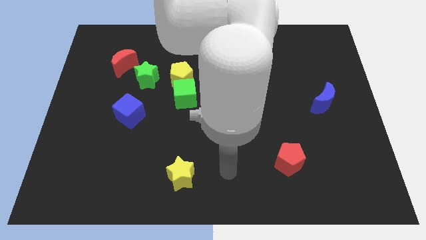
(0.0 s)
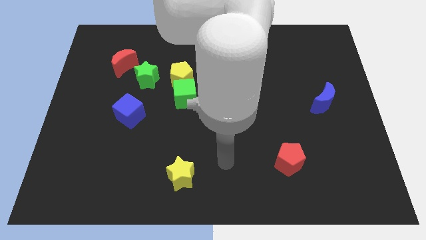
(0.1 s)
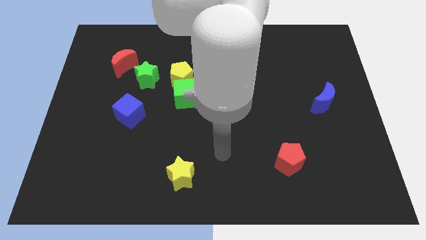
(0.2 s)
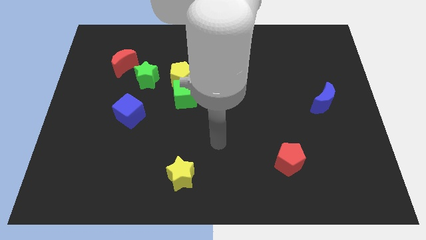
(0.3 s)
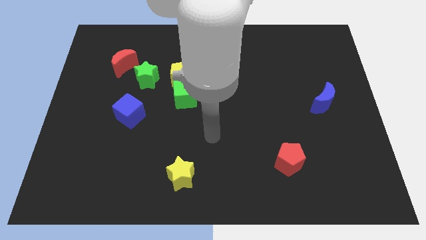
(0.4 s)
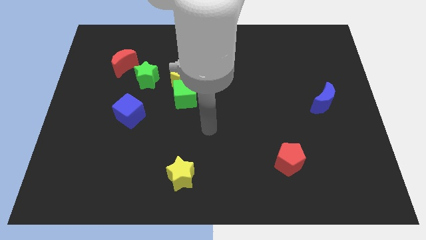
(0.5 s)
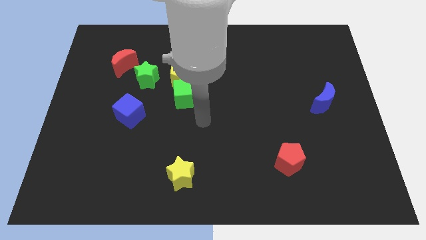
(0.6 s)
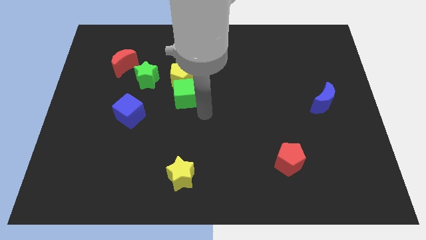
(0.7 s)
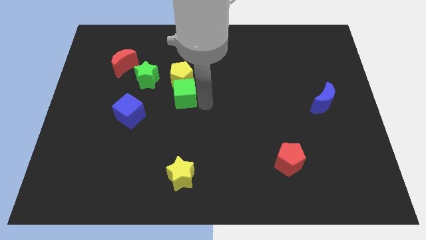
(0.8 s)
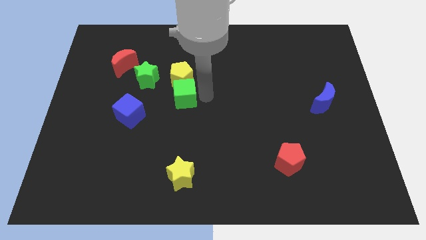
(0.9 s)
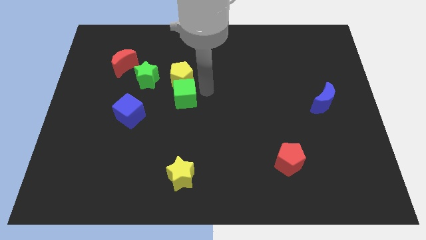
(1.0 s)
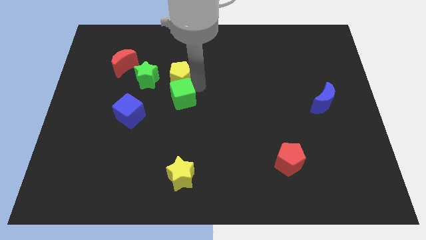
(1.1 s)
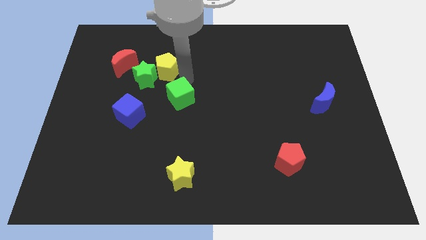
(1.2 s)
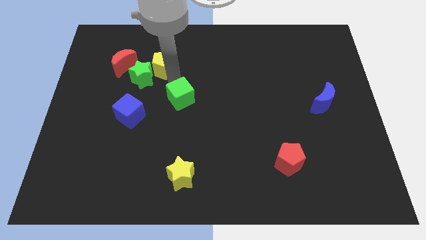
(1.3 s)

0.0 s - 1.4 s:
pull the green cube apart from the yellow pentagon

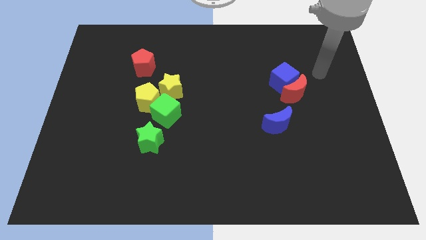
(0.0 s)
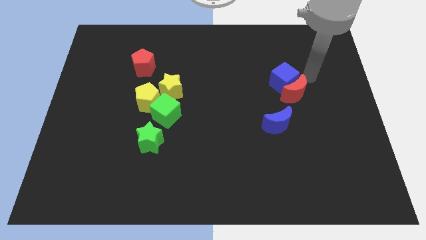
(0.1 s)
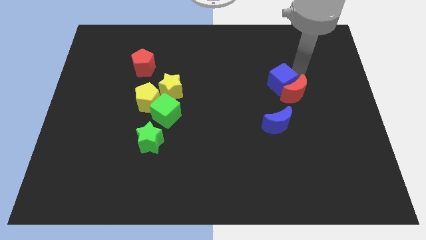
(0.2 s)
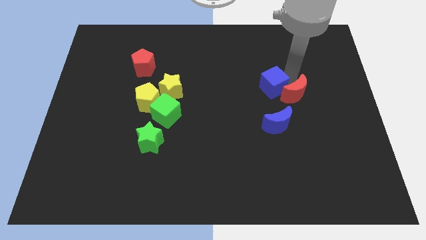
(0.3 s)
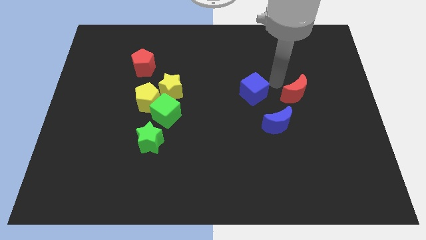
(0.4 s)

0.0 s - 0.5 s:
pull the red moon apart from the blue cube

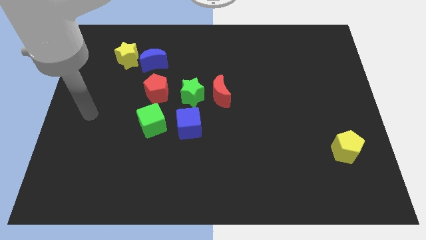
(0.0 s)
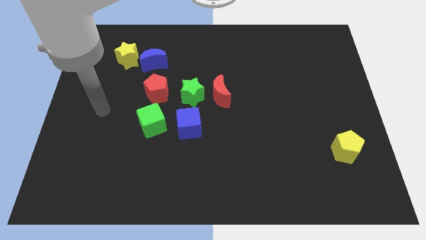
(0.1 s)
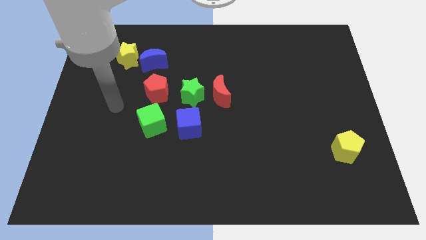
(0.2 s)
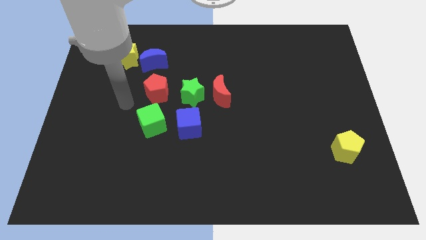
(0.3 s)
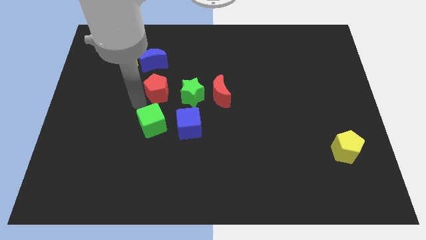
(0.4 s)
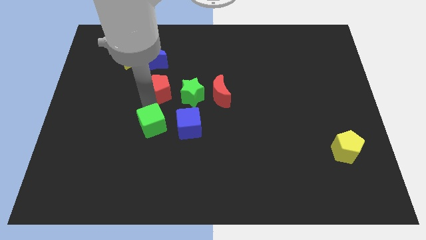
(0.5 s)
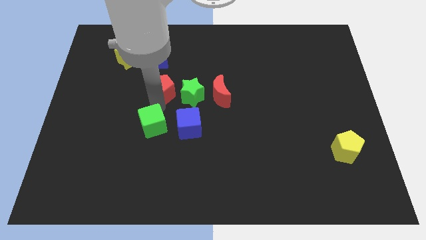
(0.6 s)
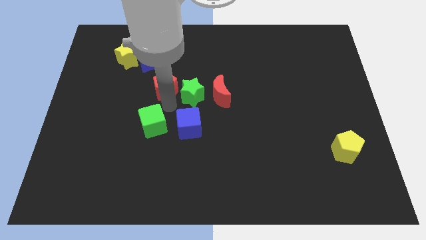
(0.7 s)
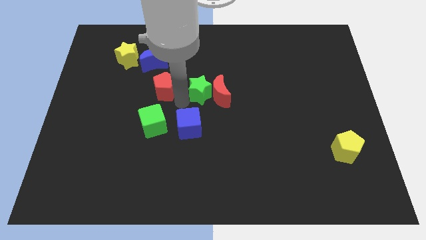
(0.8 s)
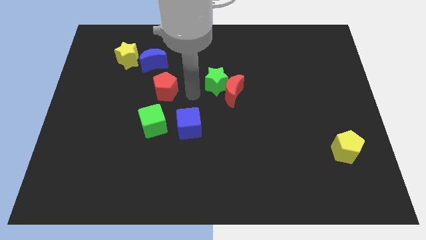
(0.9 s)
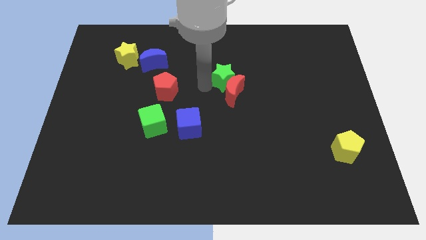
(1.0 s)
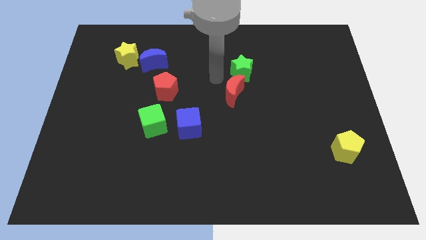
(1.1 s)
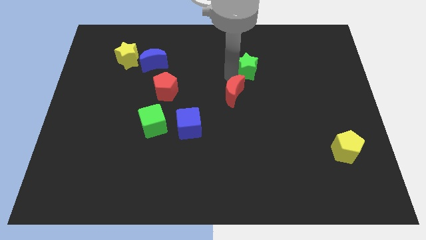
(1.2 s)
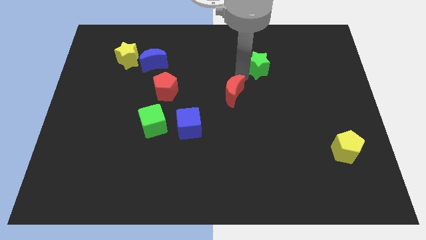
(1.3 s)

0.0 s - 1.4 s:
separate the red moon from the green star

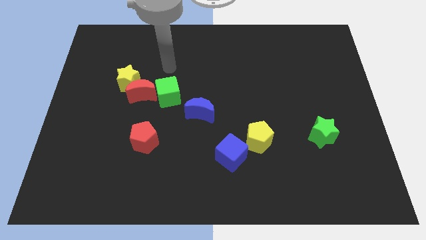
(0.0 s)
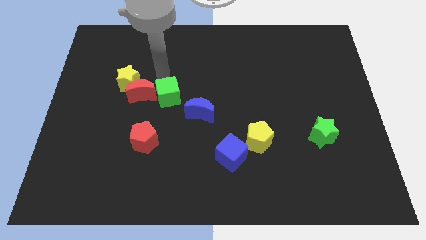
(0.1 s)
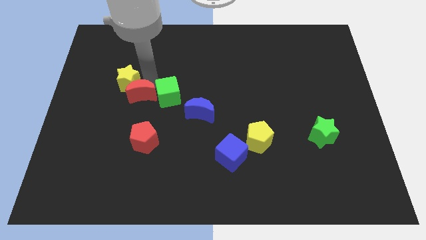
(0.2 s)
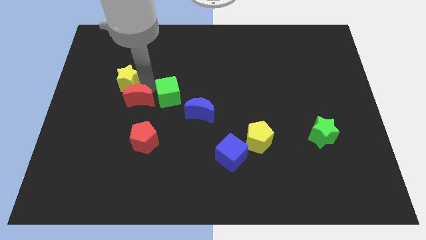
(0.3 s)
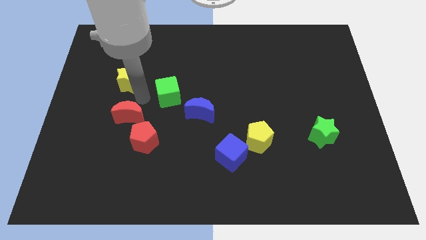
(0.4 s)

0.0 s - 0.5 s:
move the yellow star away from the red moon

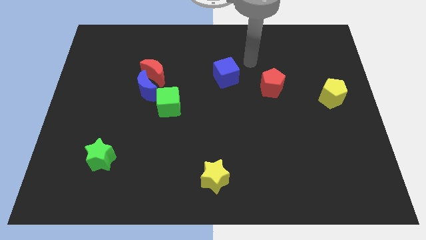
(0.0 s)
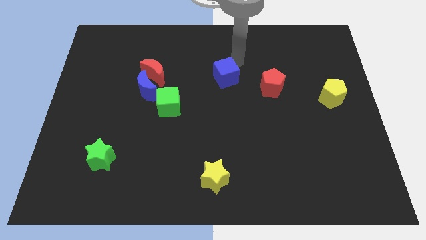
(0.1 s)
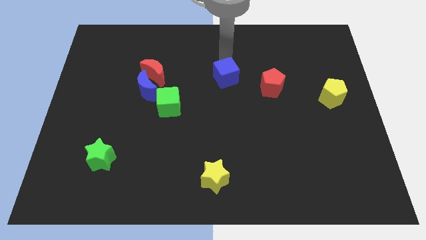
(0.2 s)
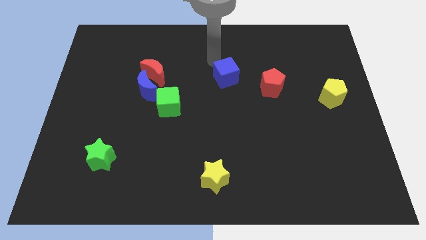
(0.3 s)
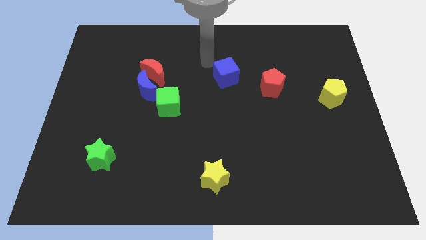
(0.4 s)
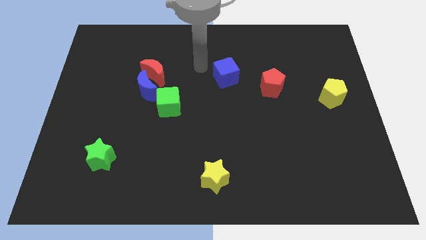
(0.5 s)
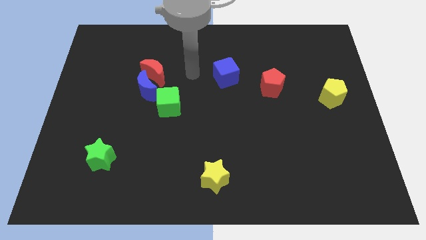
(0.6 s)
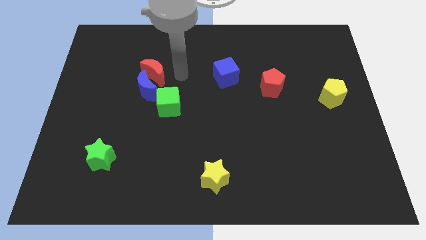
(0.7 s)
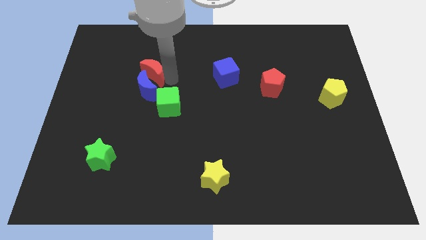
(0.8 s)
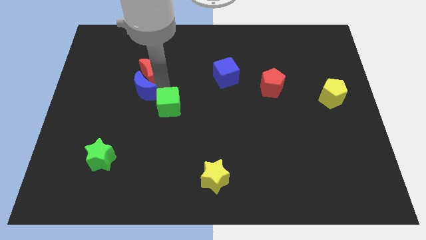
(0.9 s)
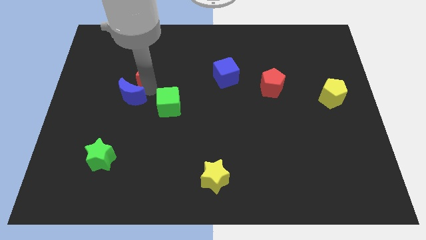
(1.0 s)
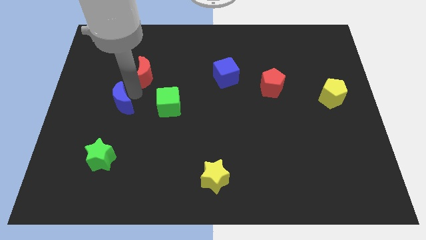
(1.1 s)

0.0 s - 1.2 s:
separate the red moon from the blue moon

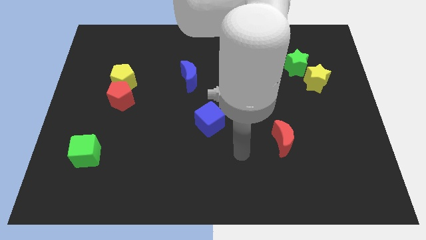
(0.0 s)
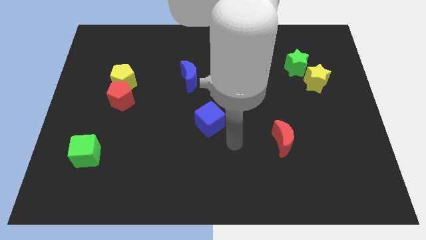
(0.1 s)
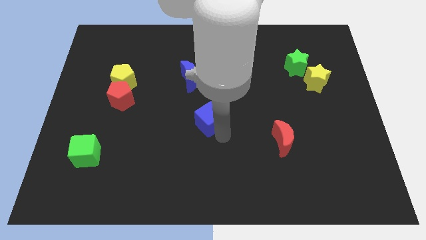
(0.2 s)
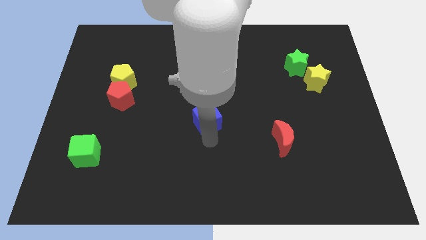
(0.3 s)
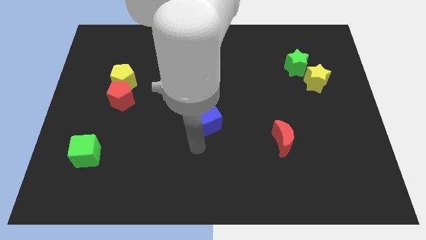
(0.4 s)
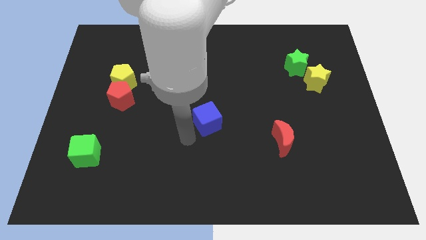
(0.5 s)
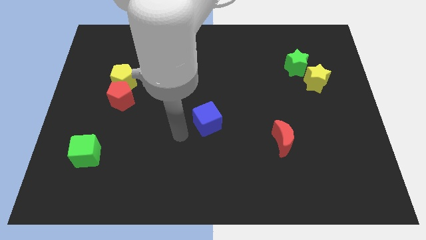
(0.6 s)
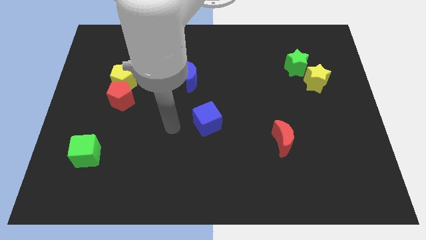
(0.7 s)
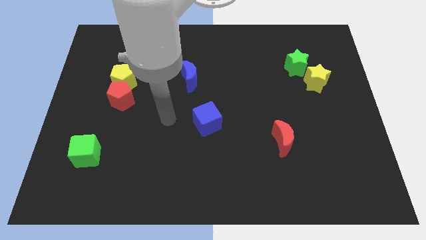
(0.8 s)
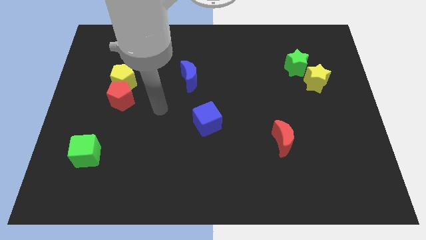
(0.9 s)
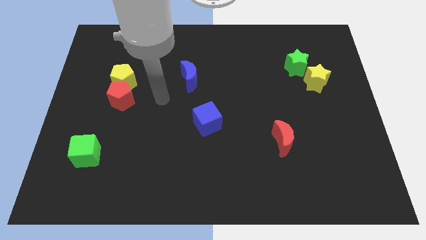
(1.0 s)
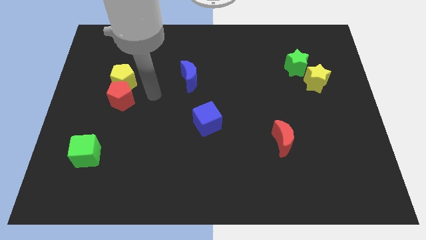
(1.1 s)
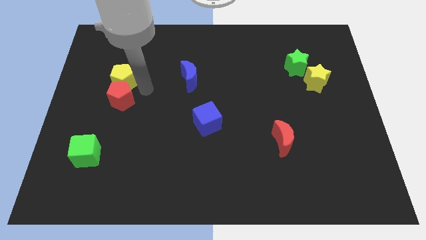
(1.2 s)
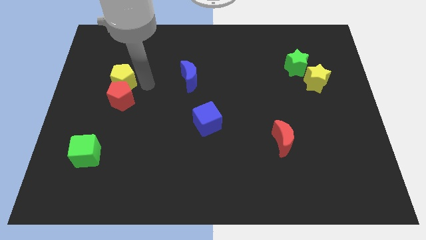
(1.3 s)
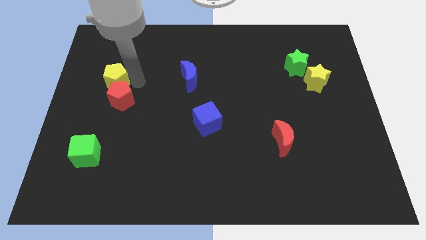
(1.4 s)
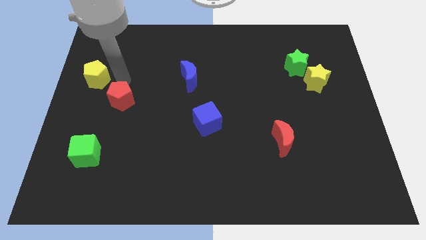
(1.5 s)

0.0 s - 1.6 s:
pull the red pentagon apart from the yellow pentagon

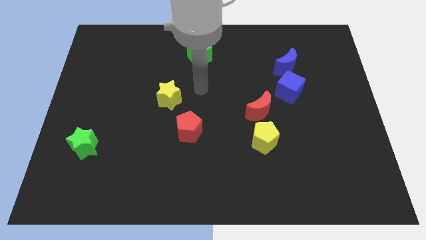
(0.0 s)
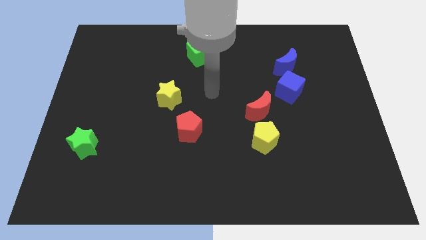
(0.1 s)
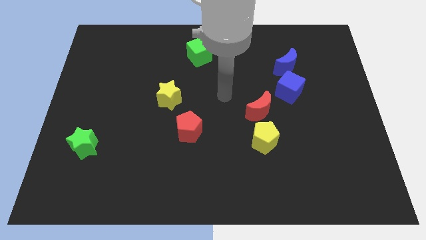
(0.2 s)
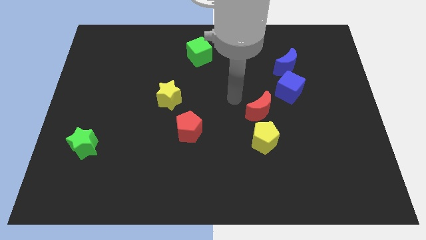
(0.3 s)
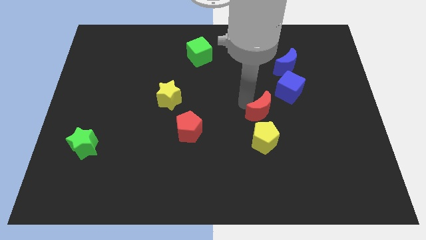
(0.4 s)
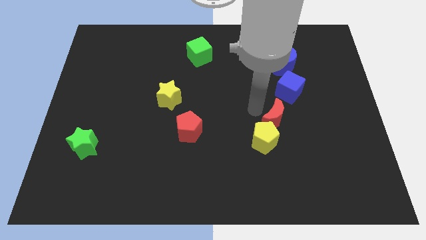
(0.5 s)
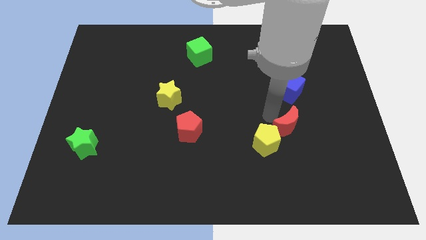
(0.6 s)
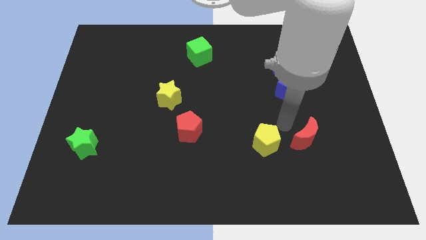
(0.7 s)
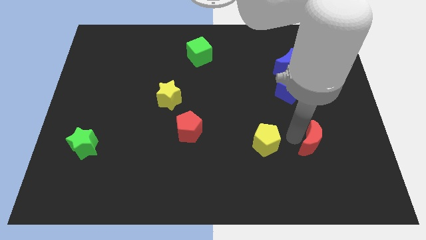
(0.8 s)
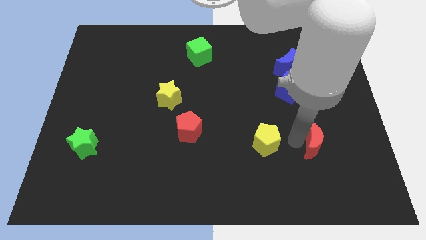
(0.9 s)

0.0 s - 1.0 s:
pull the yellow pentagon apart from the red moon

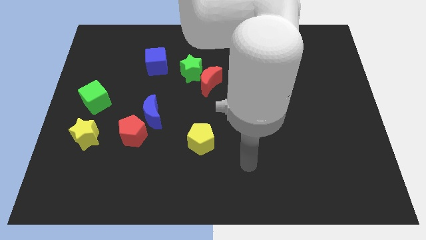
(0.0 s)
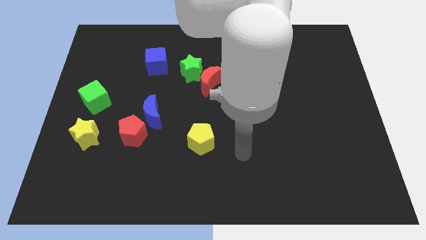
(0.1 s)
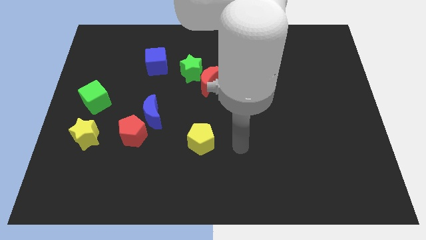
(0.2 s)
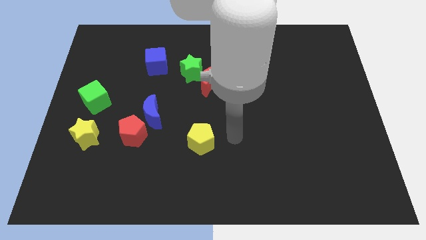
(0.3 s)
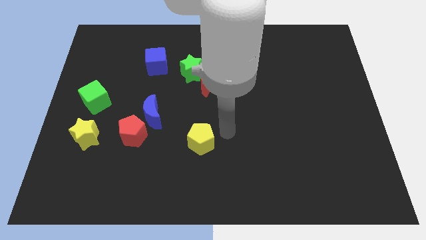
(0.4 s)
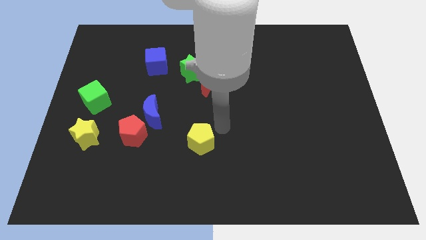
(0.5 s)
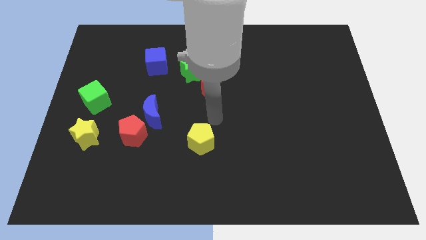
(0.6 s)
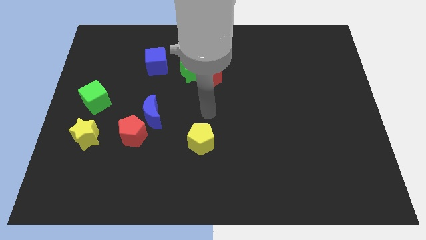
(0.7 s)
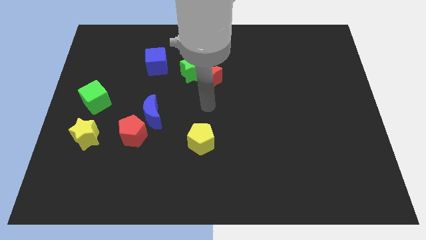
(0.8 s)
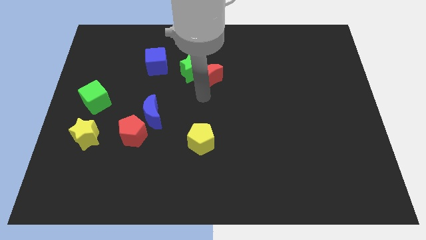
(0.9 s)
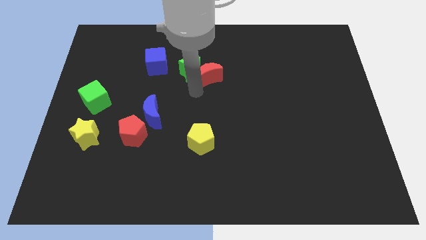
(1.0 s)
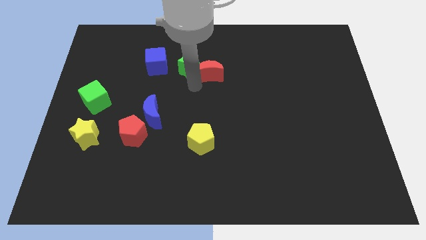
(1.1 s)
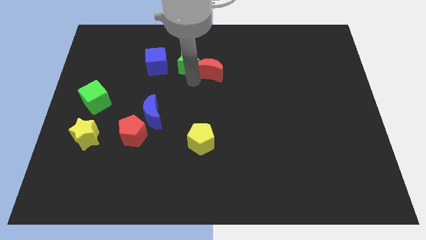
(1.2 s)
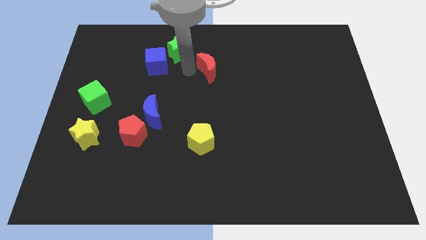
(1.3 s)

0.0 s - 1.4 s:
pull the red moon apart from the green star

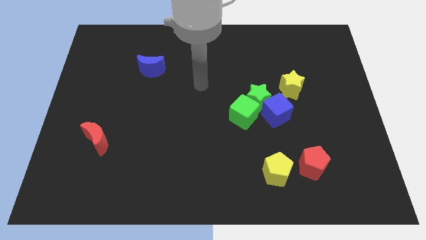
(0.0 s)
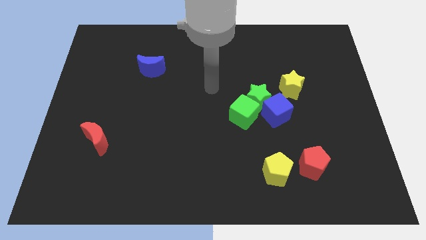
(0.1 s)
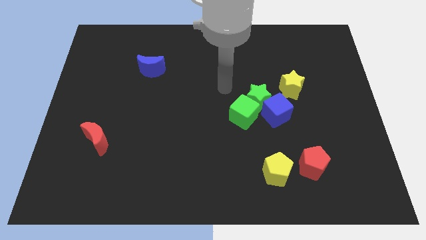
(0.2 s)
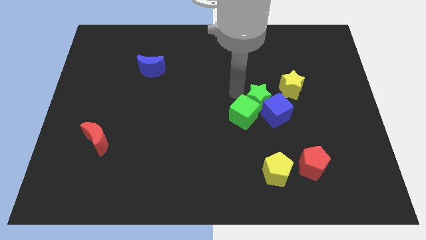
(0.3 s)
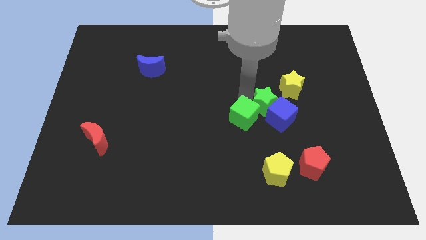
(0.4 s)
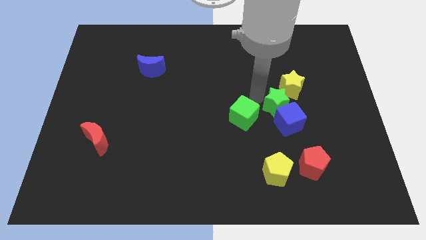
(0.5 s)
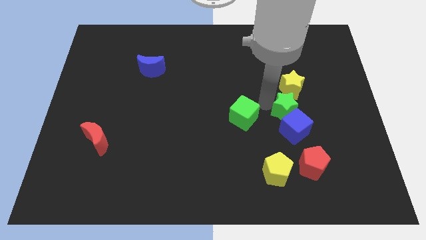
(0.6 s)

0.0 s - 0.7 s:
move the green cube away from the green star and blue cube
